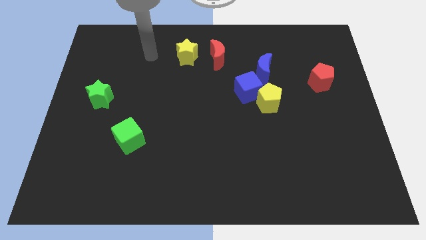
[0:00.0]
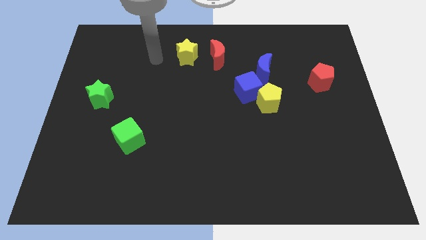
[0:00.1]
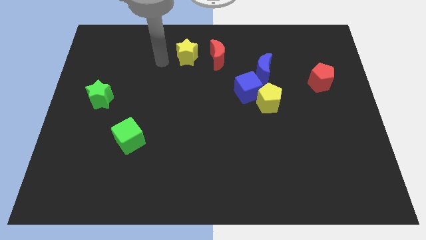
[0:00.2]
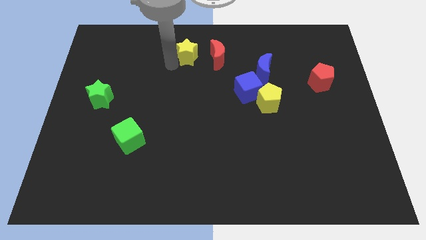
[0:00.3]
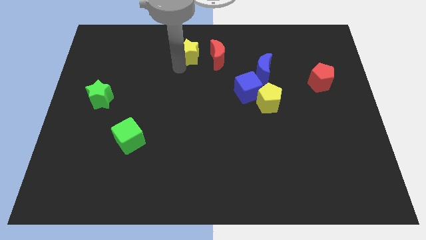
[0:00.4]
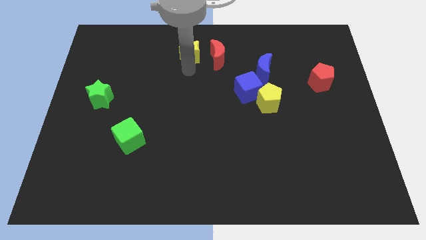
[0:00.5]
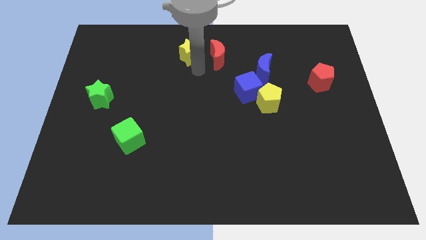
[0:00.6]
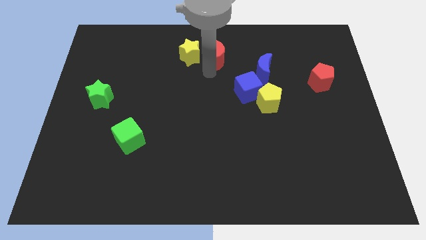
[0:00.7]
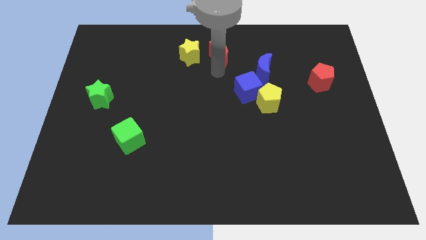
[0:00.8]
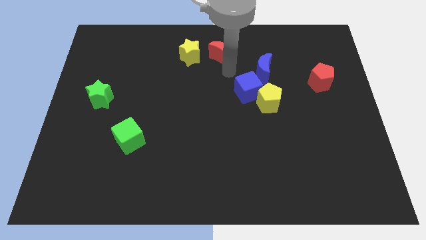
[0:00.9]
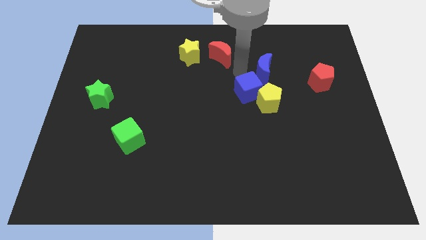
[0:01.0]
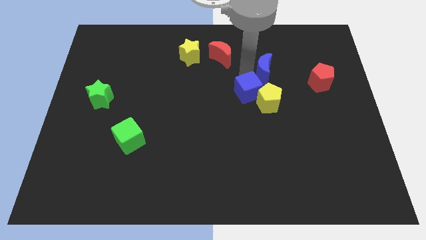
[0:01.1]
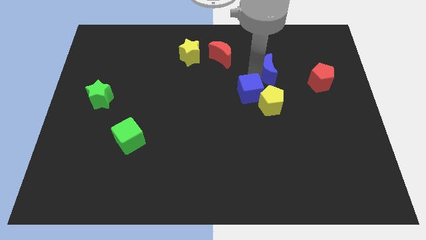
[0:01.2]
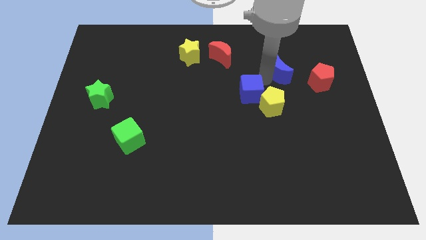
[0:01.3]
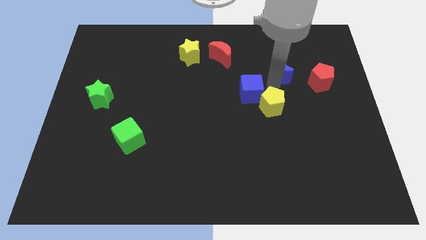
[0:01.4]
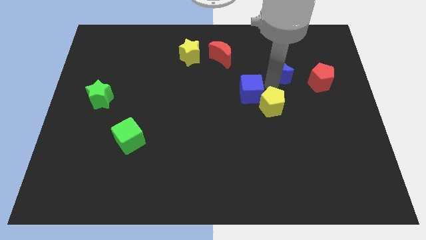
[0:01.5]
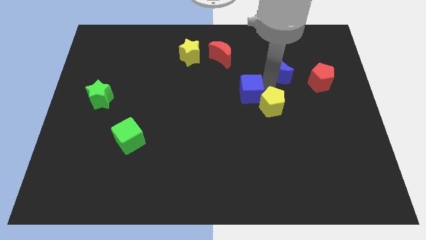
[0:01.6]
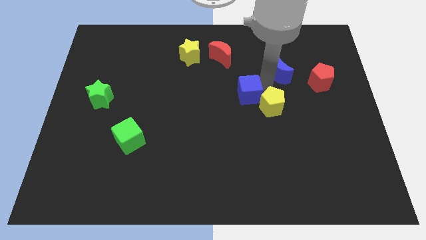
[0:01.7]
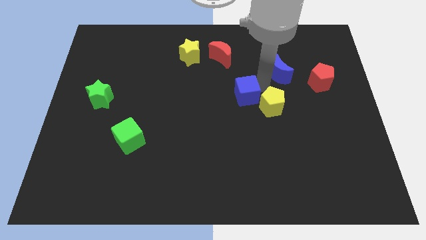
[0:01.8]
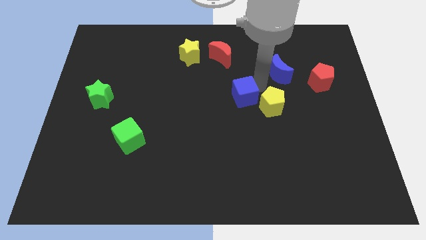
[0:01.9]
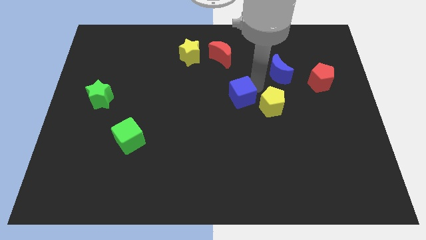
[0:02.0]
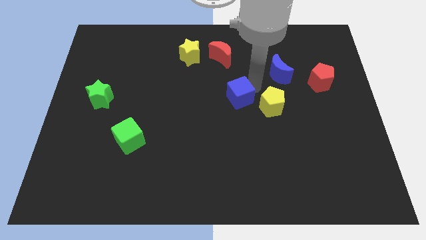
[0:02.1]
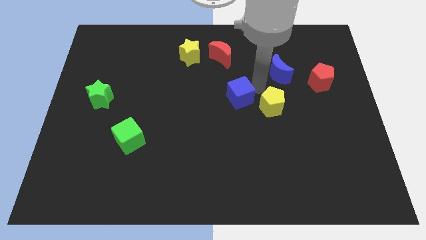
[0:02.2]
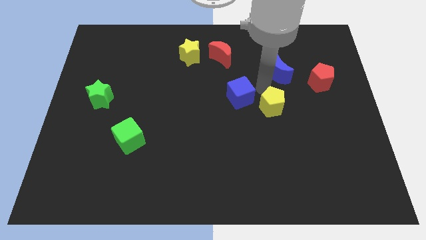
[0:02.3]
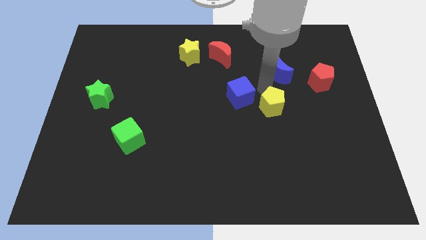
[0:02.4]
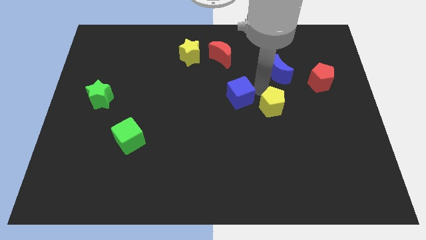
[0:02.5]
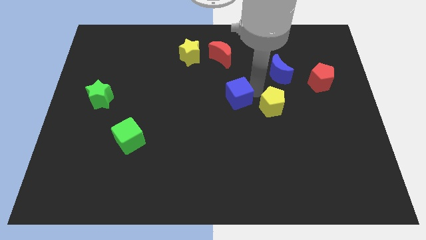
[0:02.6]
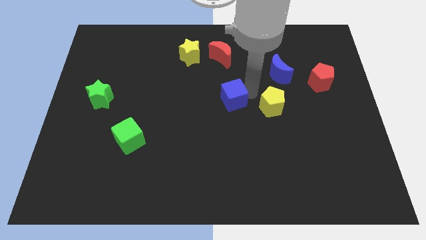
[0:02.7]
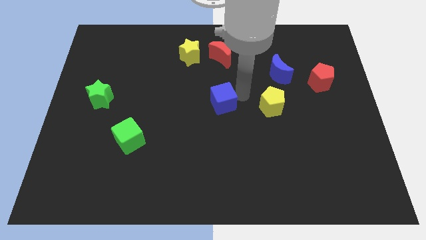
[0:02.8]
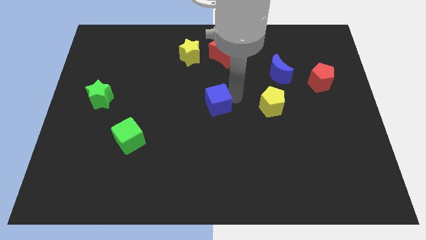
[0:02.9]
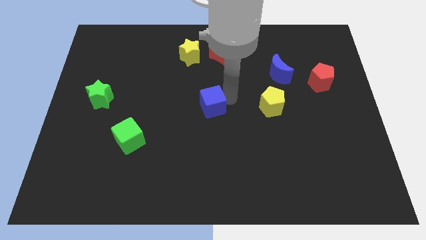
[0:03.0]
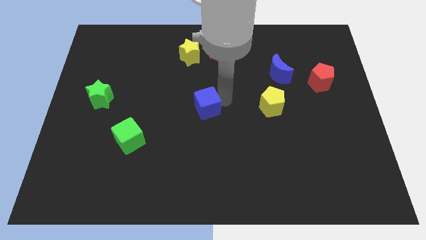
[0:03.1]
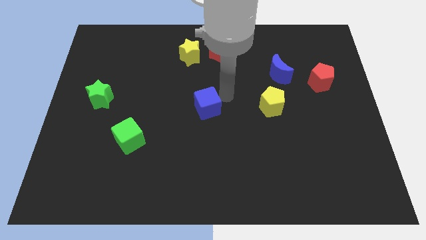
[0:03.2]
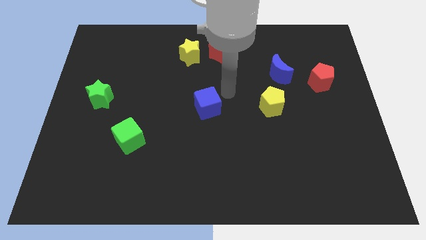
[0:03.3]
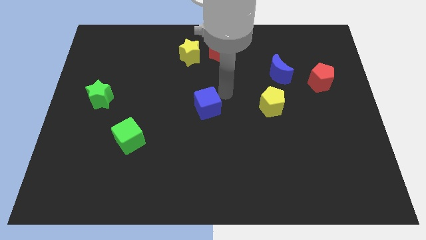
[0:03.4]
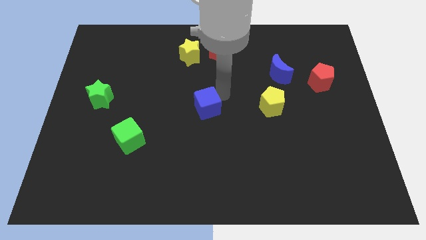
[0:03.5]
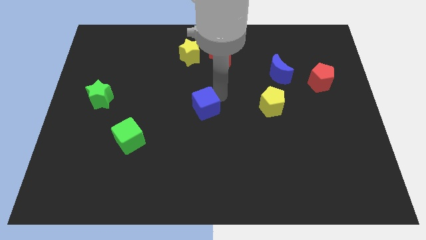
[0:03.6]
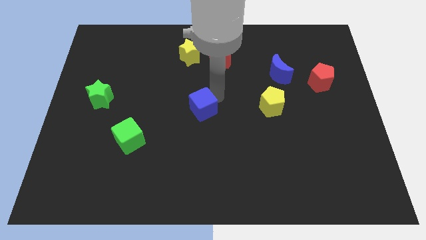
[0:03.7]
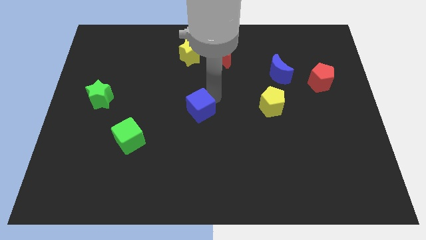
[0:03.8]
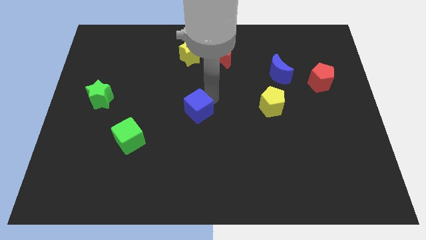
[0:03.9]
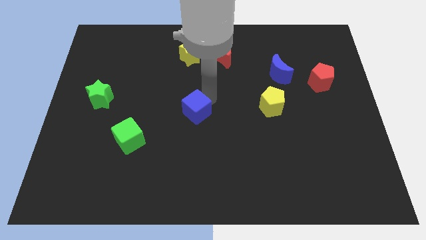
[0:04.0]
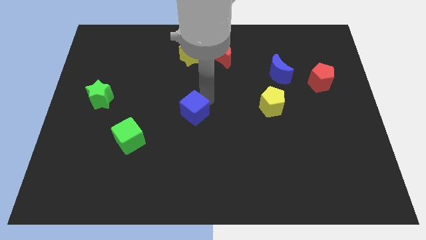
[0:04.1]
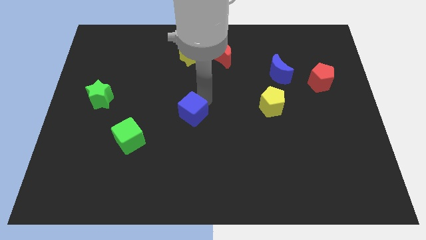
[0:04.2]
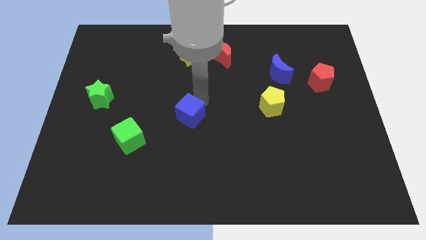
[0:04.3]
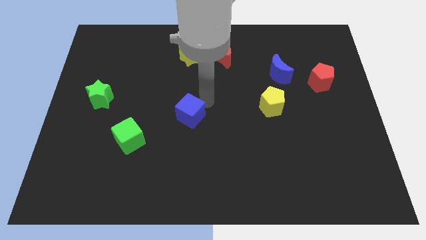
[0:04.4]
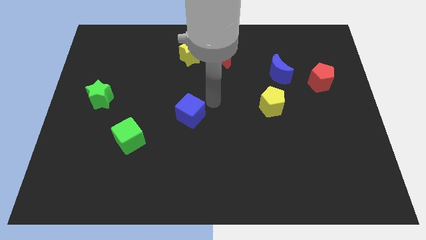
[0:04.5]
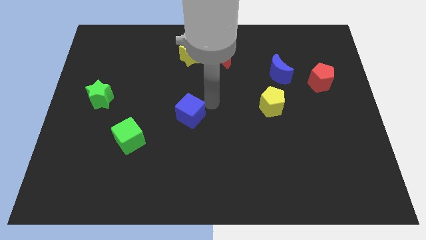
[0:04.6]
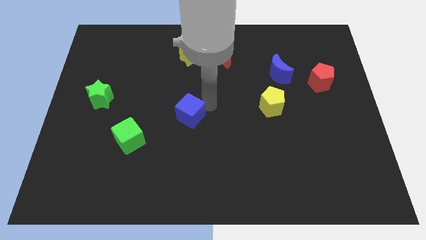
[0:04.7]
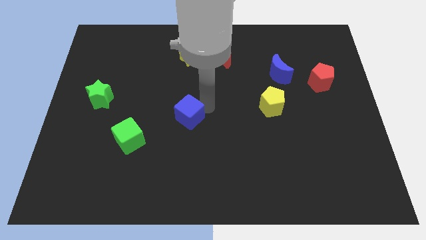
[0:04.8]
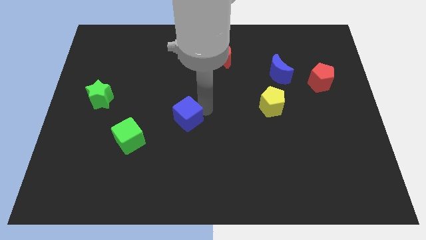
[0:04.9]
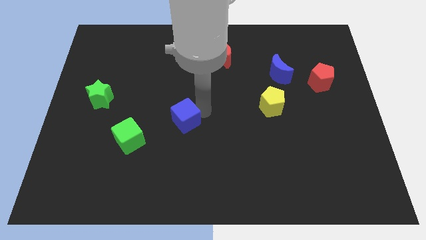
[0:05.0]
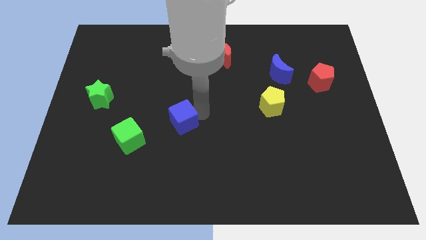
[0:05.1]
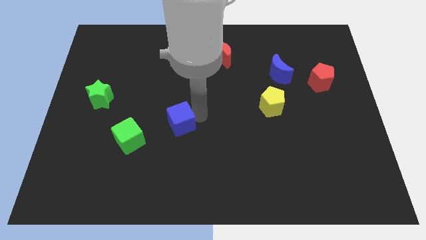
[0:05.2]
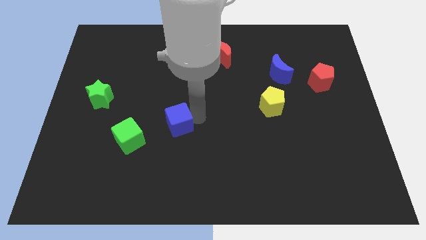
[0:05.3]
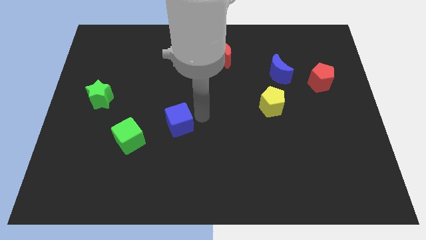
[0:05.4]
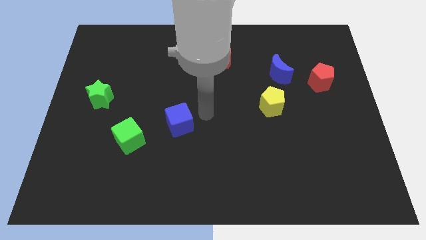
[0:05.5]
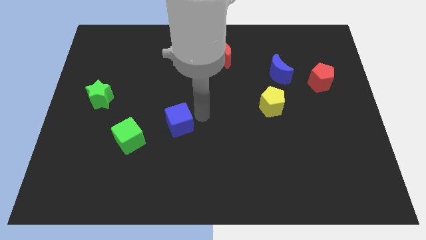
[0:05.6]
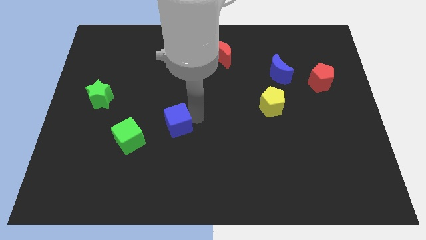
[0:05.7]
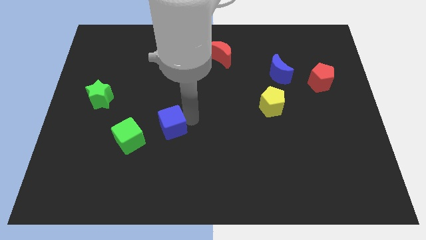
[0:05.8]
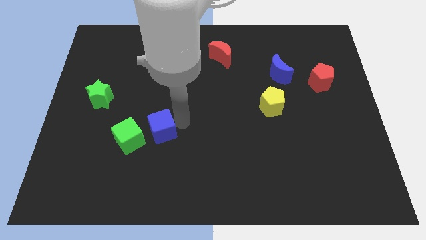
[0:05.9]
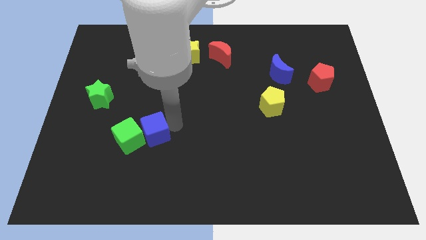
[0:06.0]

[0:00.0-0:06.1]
slide the blue cube next to the green cube
